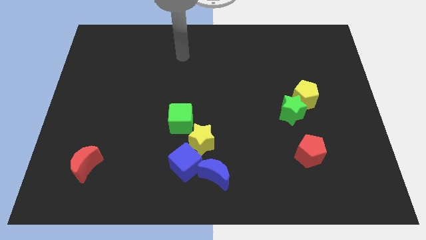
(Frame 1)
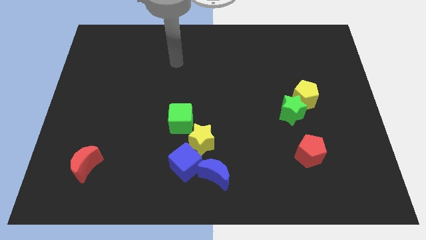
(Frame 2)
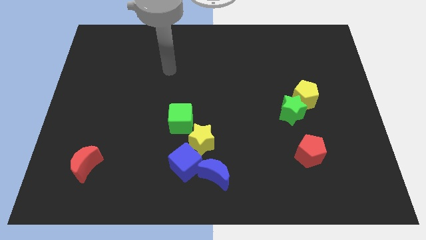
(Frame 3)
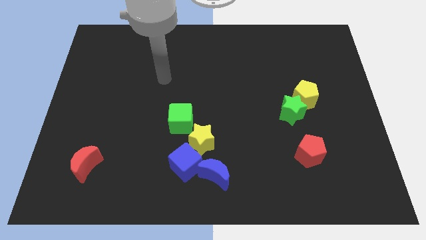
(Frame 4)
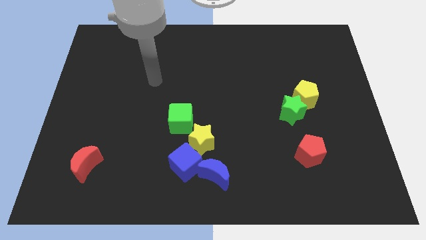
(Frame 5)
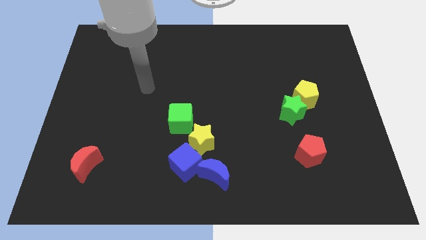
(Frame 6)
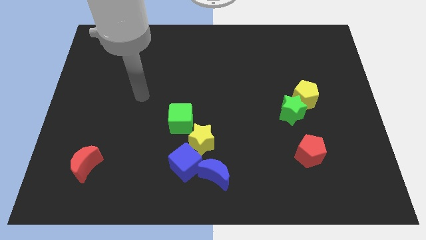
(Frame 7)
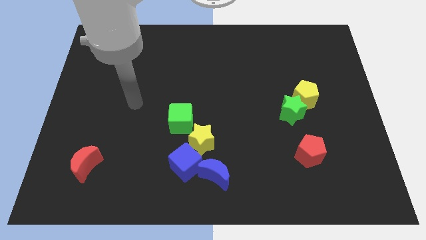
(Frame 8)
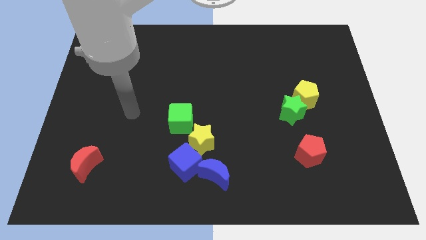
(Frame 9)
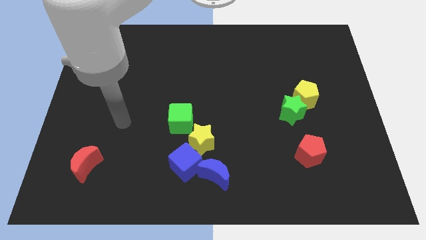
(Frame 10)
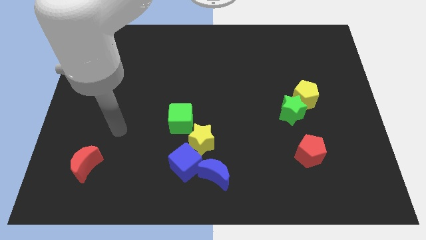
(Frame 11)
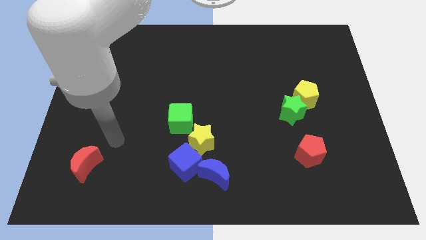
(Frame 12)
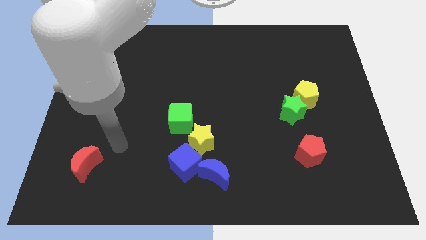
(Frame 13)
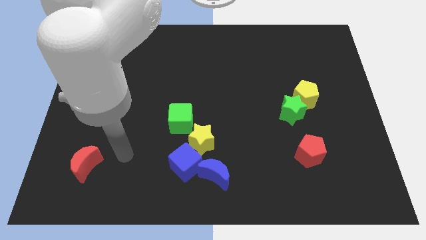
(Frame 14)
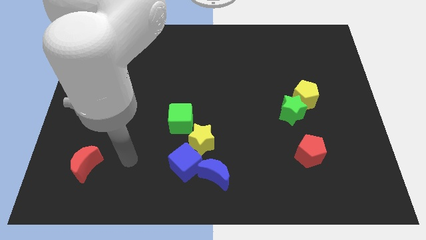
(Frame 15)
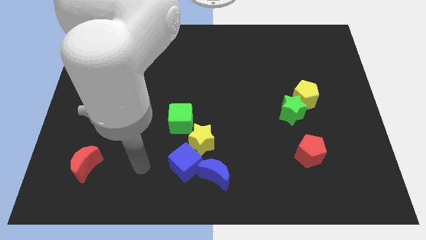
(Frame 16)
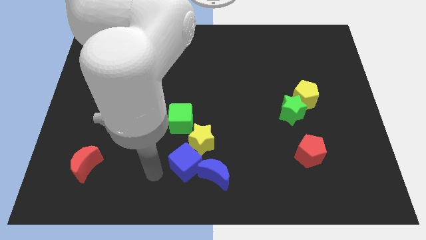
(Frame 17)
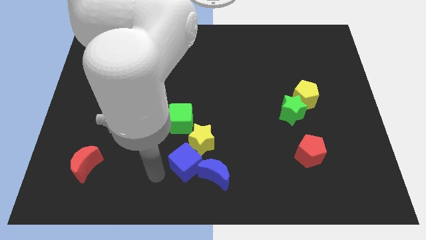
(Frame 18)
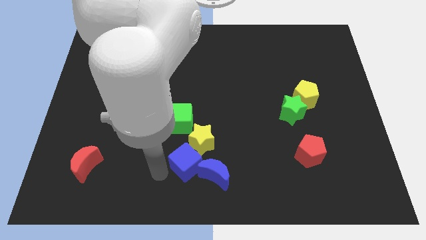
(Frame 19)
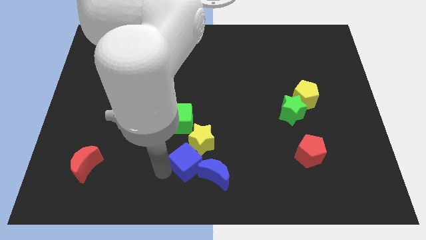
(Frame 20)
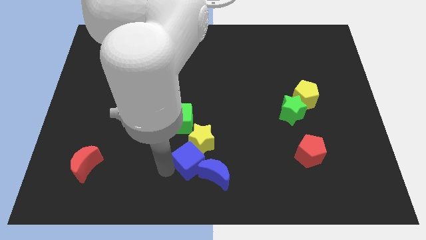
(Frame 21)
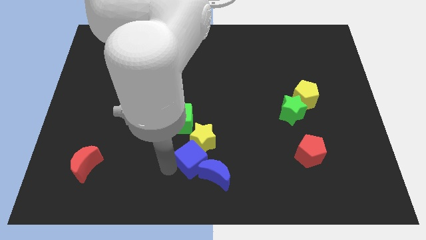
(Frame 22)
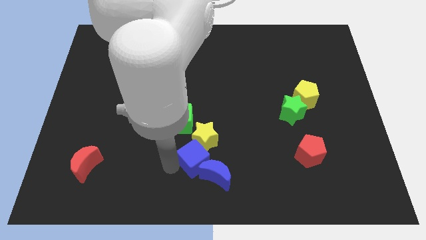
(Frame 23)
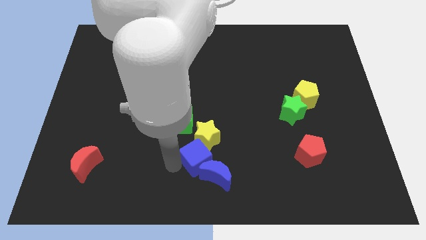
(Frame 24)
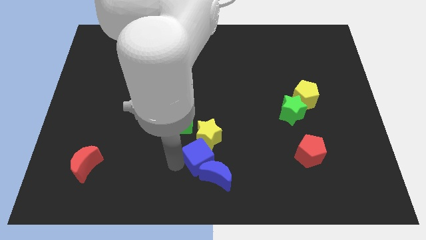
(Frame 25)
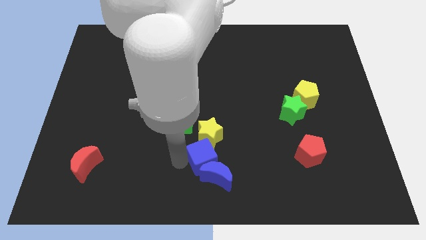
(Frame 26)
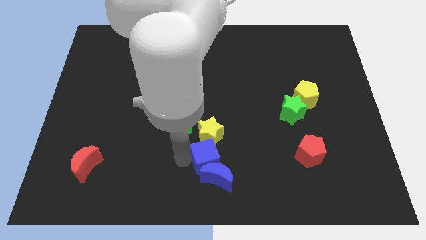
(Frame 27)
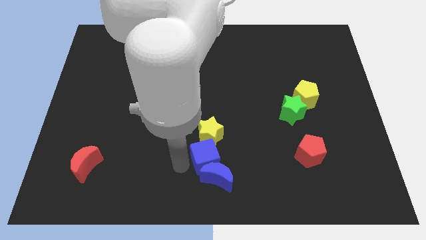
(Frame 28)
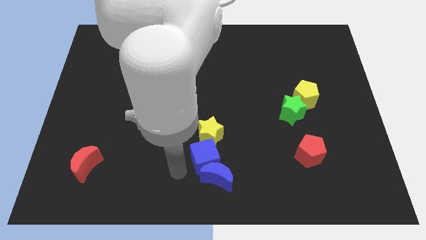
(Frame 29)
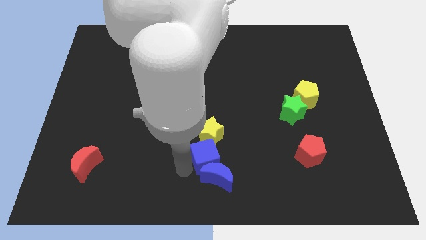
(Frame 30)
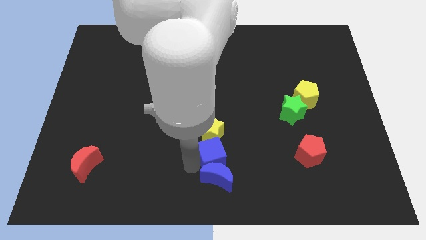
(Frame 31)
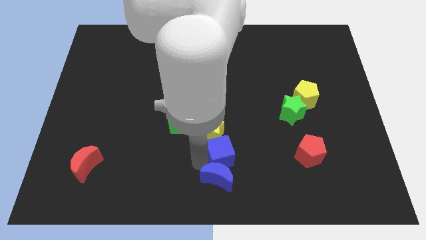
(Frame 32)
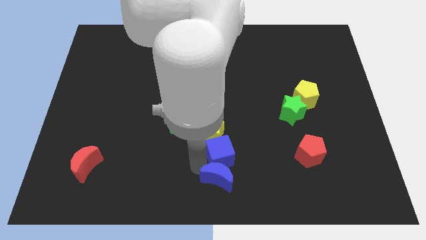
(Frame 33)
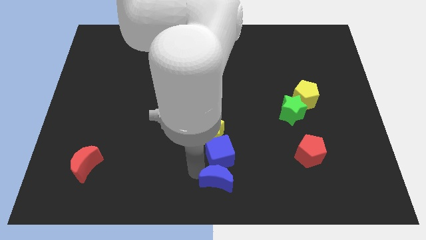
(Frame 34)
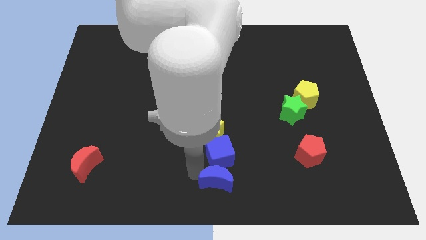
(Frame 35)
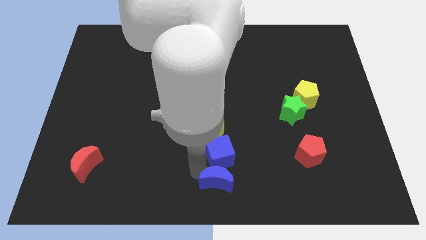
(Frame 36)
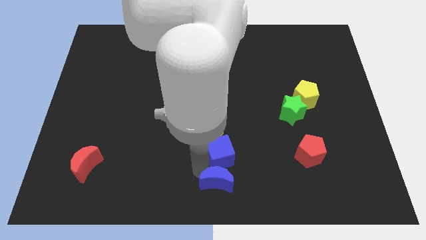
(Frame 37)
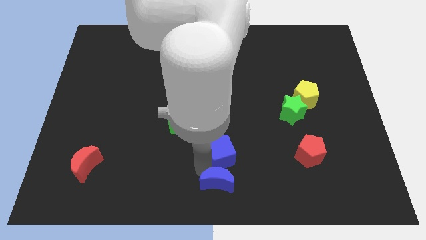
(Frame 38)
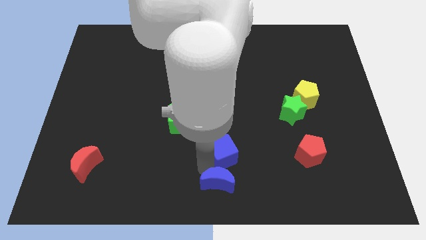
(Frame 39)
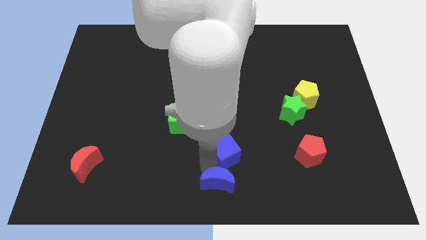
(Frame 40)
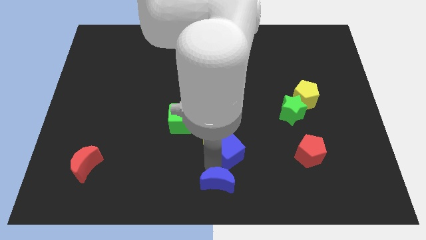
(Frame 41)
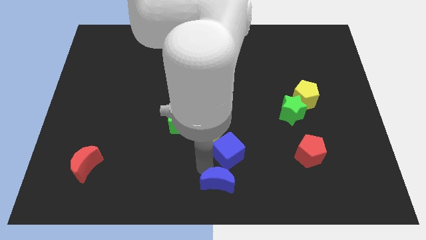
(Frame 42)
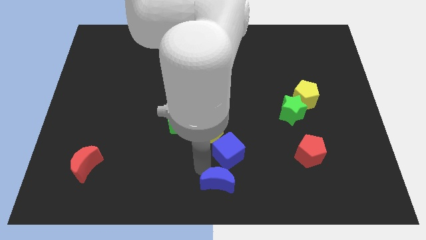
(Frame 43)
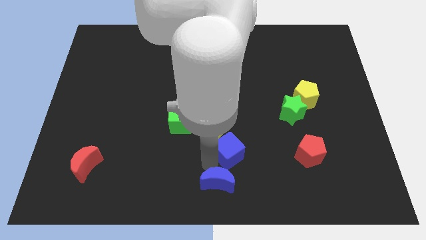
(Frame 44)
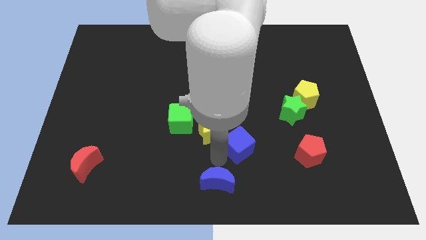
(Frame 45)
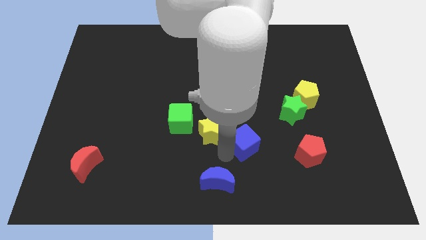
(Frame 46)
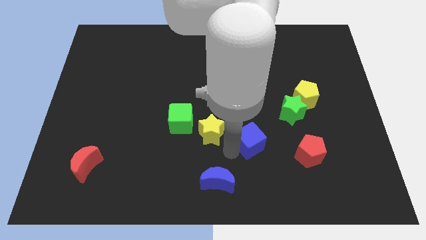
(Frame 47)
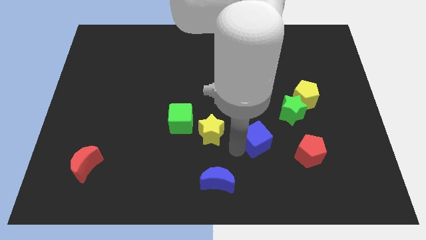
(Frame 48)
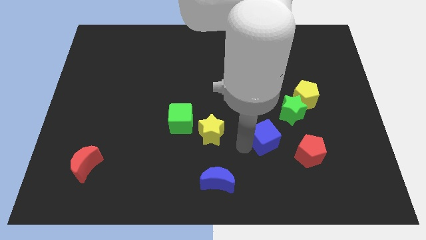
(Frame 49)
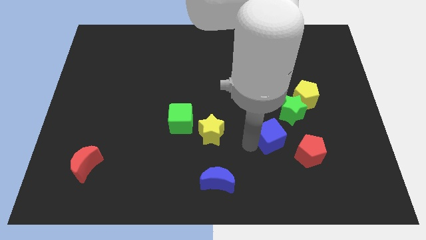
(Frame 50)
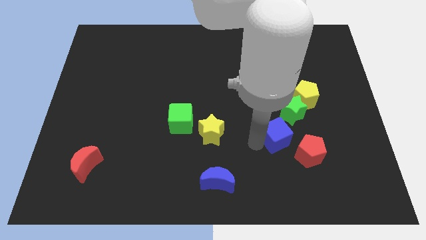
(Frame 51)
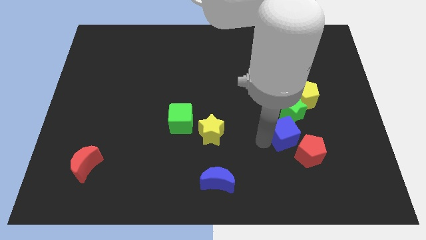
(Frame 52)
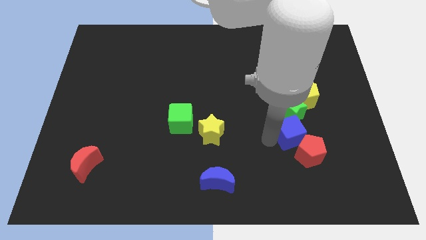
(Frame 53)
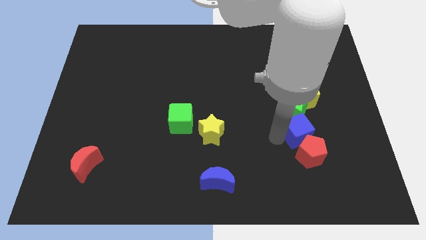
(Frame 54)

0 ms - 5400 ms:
push the blue cube diagonally down and to the right of the green star

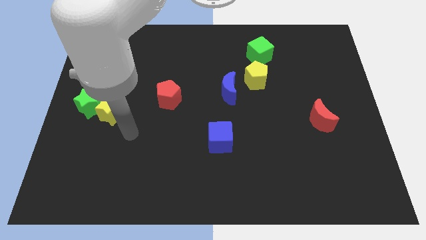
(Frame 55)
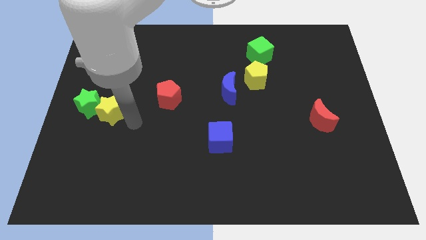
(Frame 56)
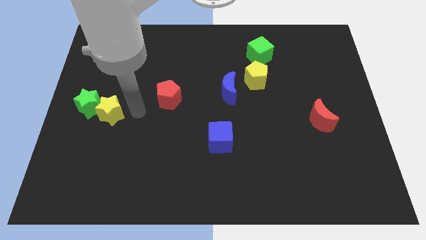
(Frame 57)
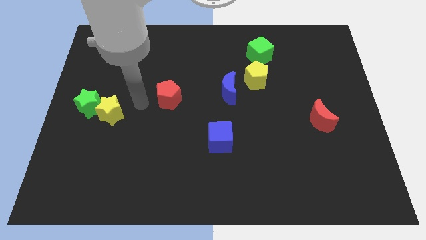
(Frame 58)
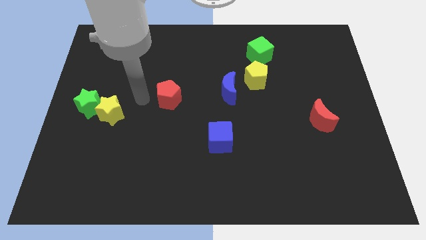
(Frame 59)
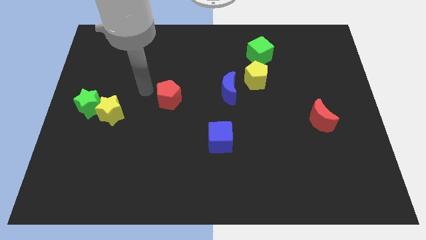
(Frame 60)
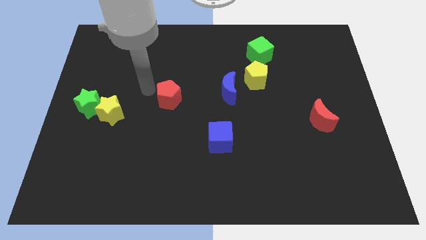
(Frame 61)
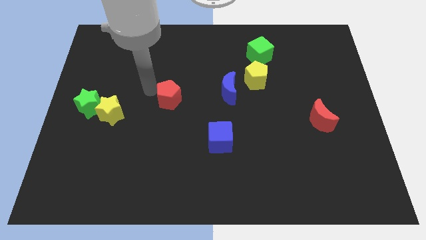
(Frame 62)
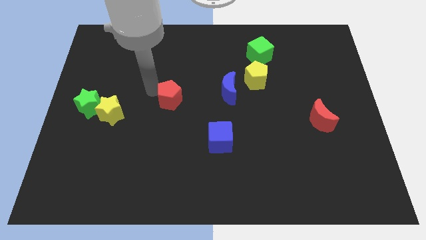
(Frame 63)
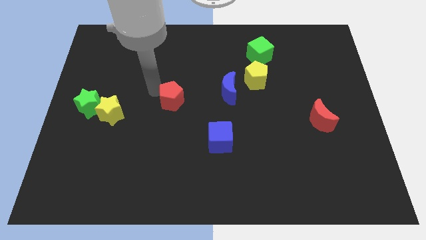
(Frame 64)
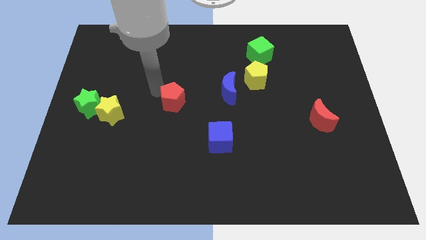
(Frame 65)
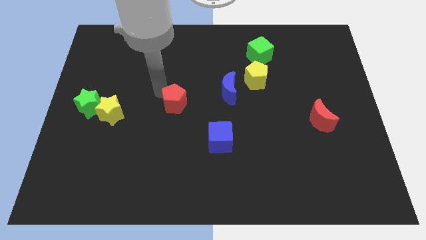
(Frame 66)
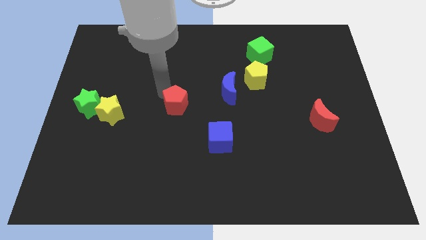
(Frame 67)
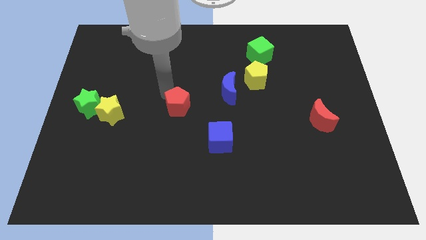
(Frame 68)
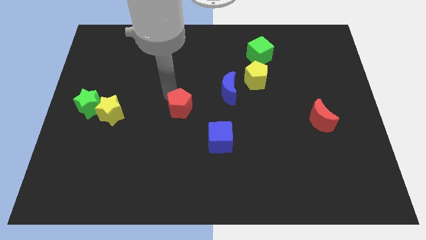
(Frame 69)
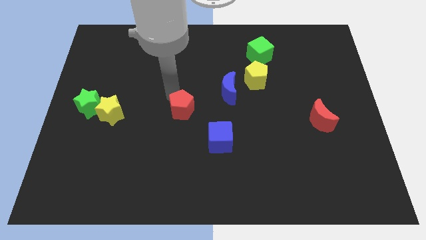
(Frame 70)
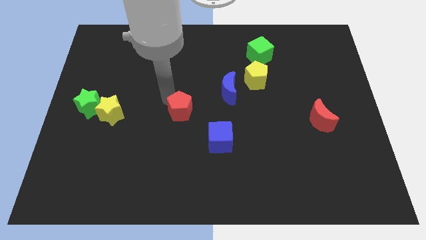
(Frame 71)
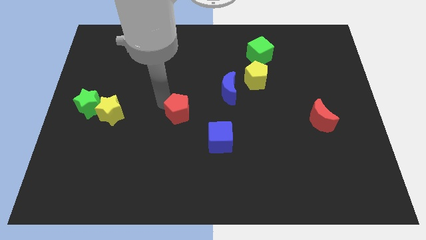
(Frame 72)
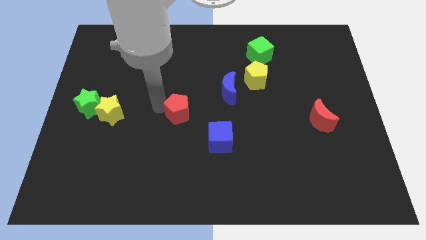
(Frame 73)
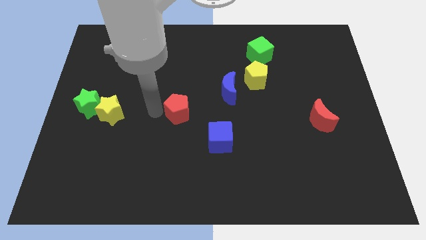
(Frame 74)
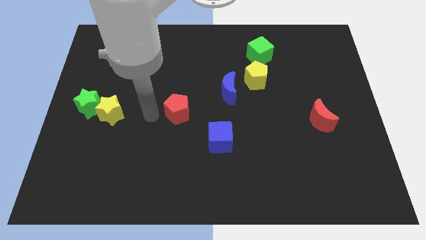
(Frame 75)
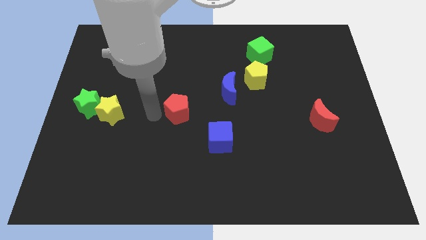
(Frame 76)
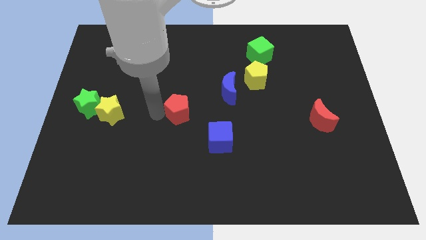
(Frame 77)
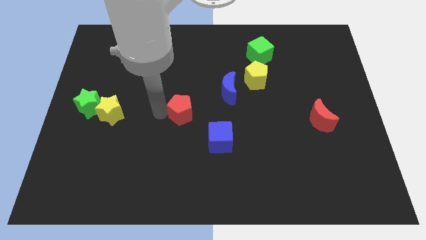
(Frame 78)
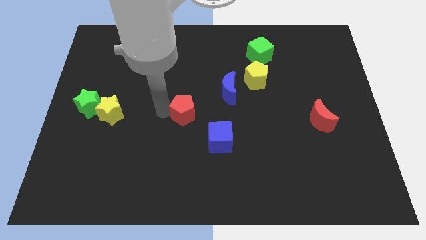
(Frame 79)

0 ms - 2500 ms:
move the red pentagon to the bottom left side of the blue moon
